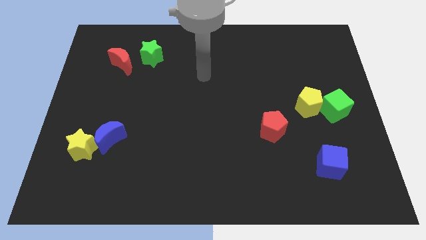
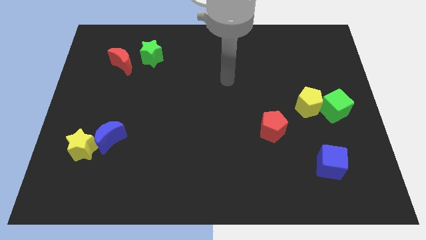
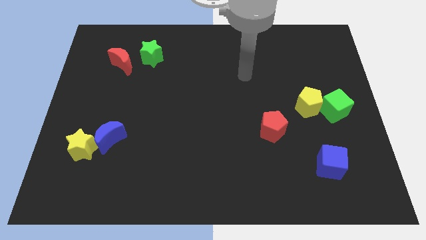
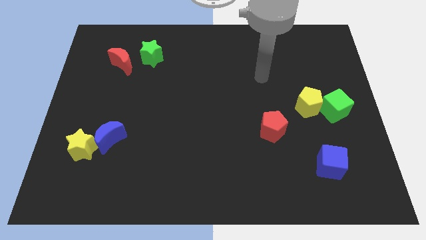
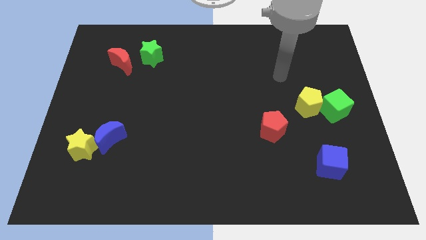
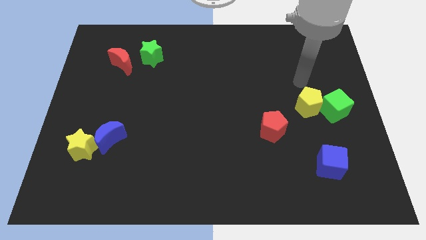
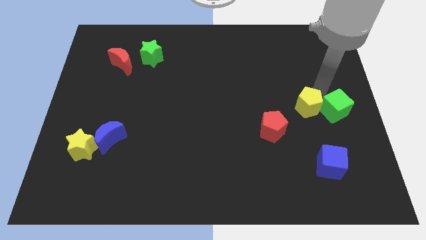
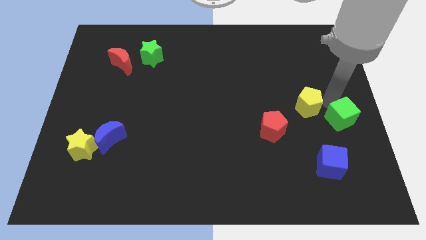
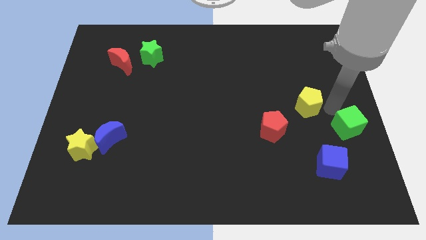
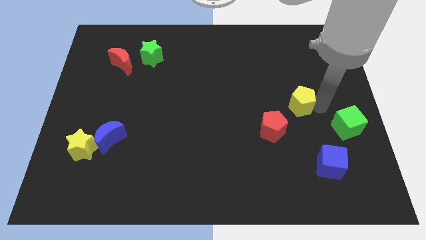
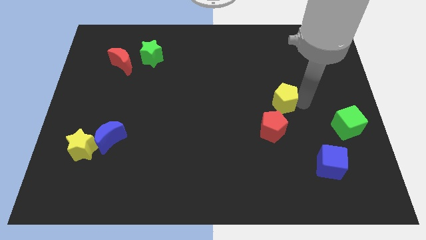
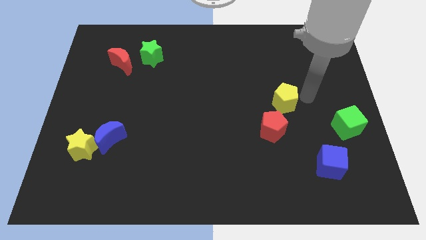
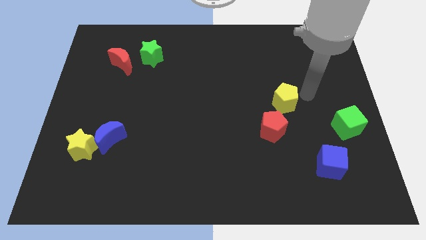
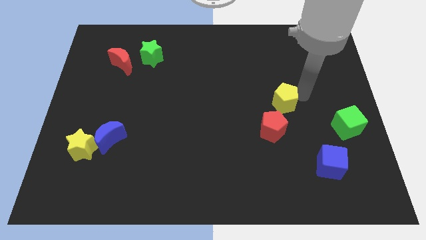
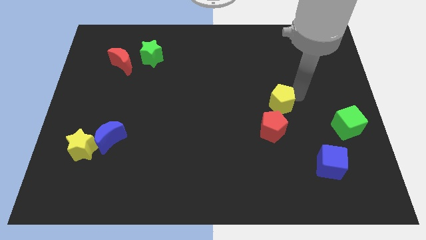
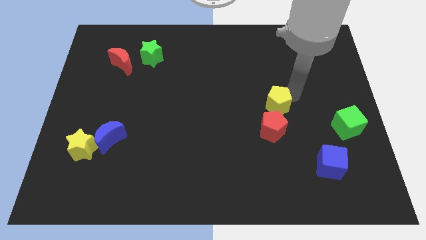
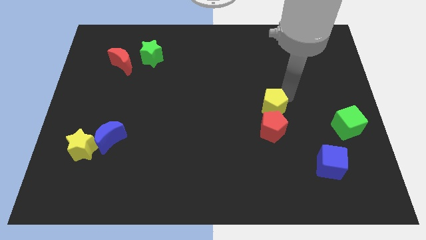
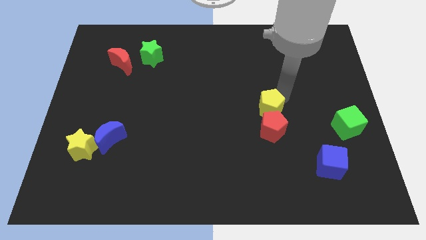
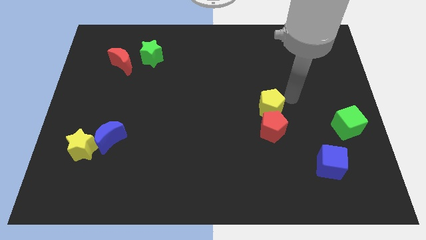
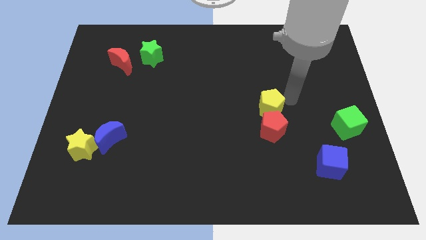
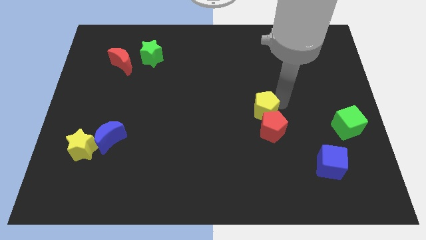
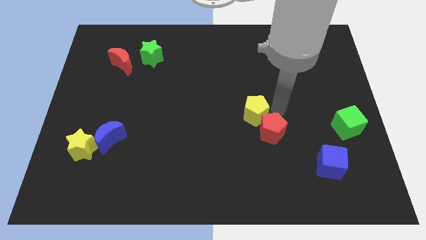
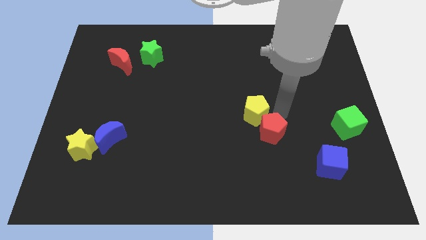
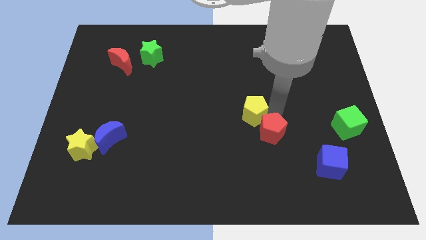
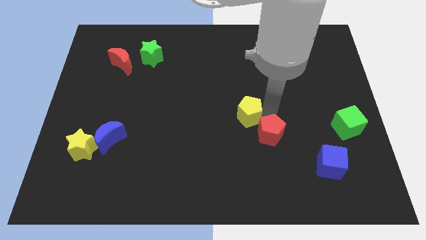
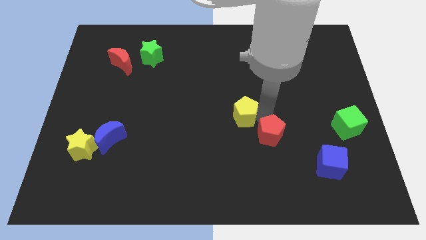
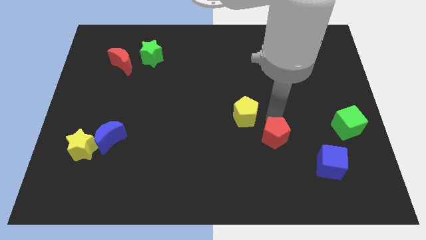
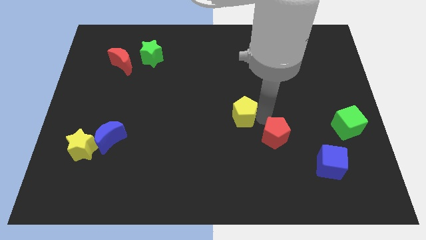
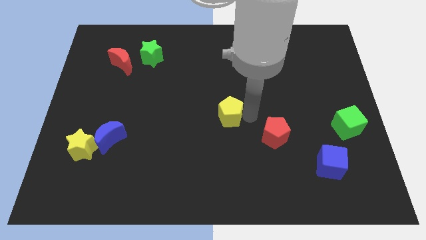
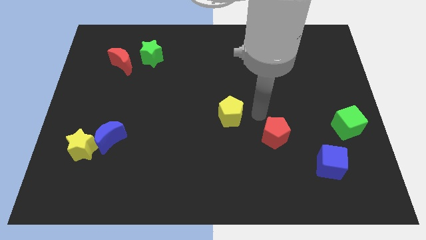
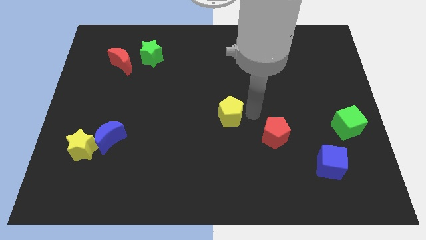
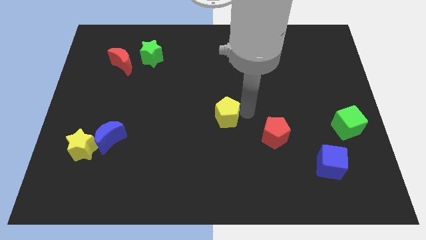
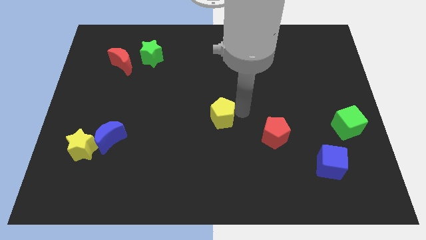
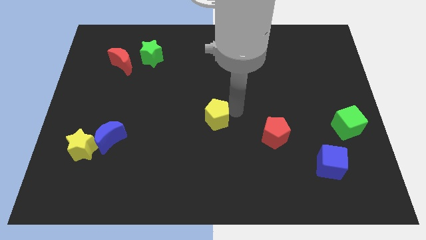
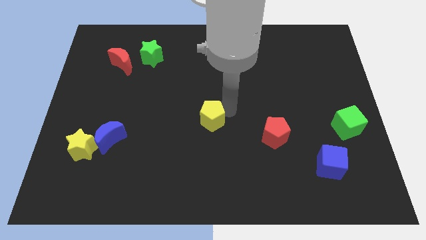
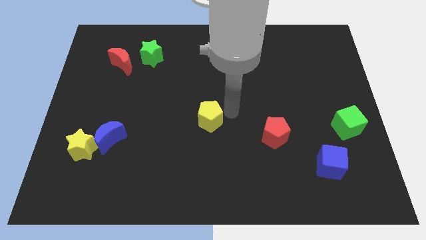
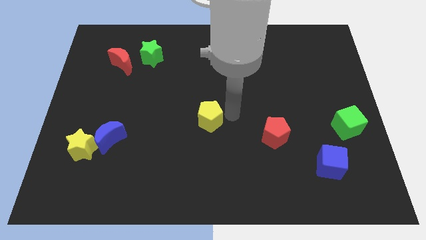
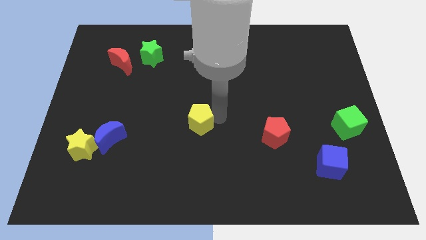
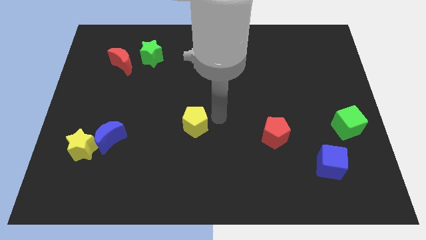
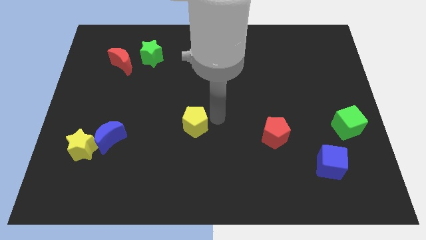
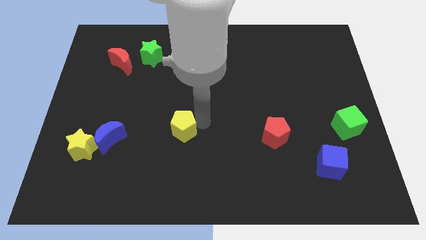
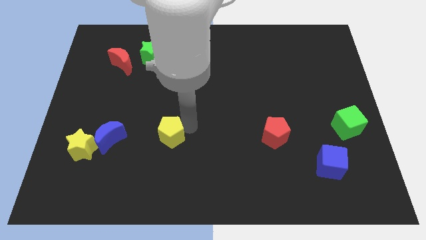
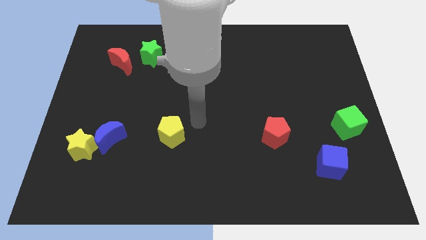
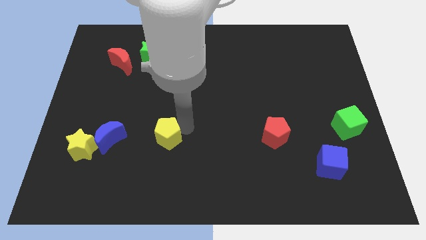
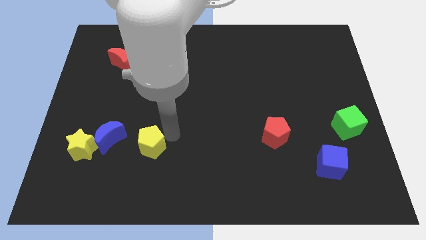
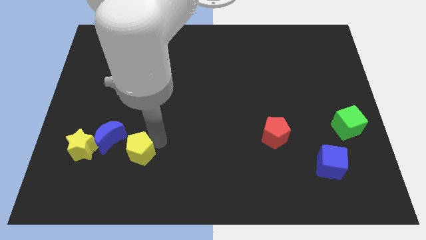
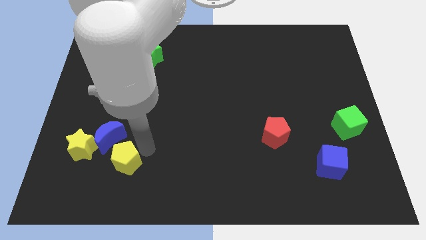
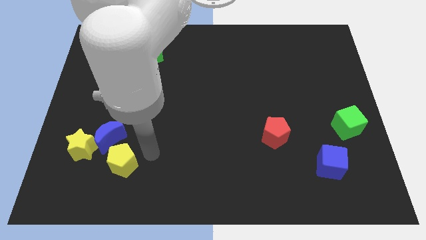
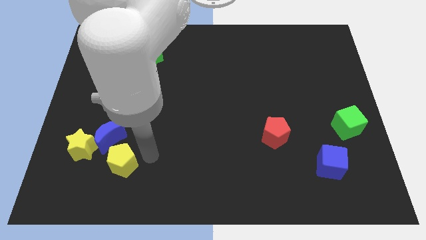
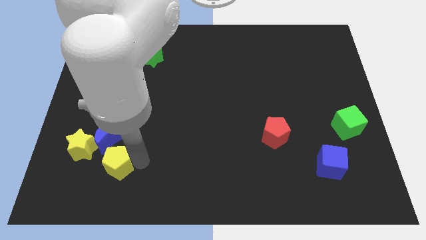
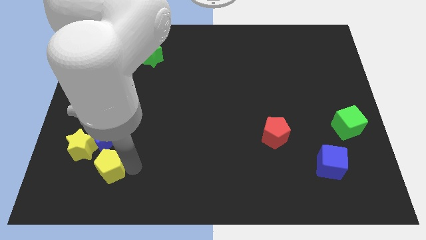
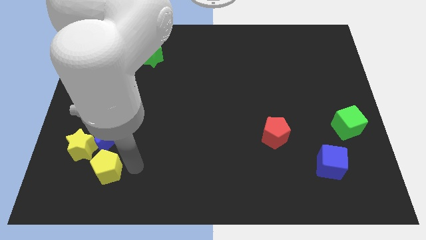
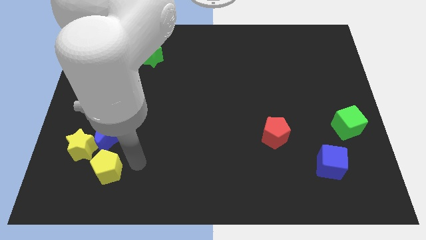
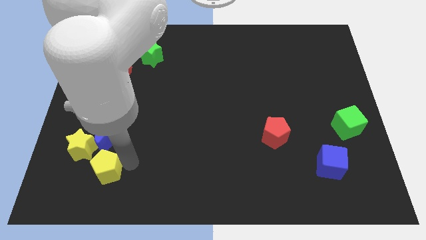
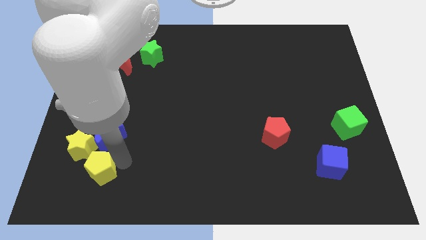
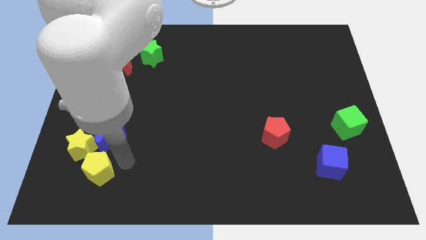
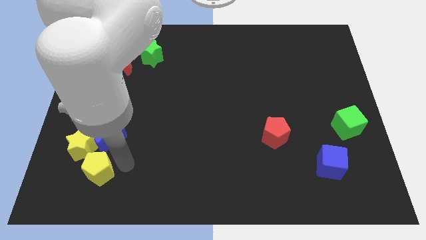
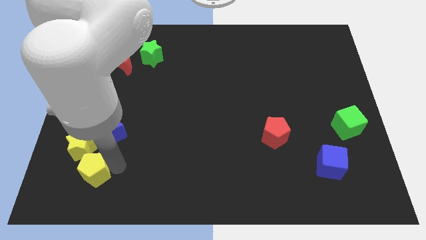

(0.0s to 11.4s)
slide the yellow pentagon to the bottom left of the blue moon

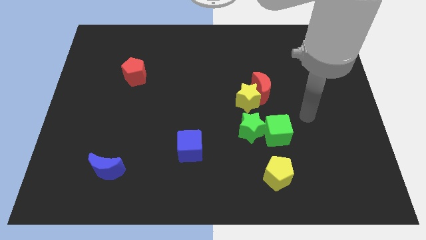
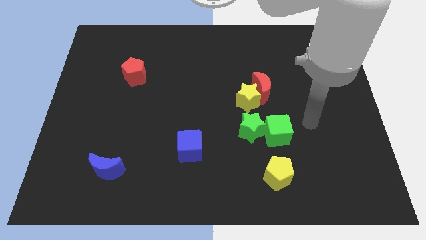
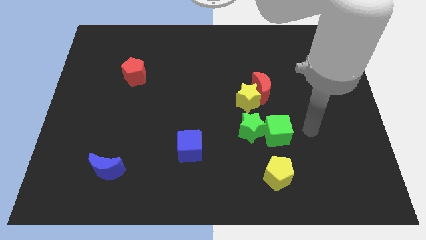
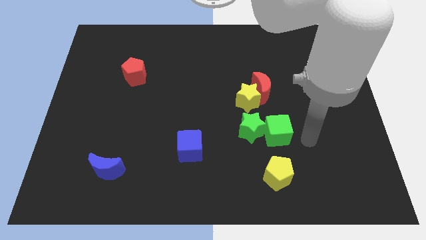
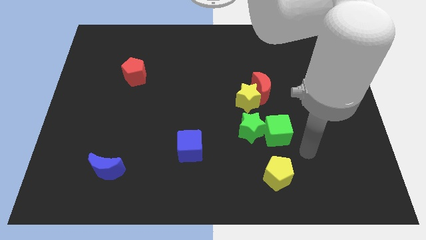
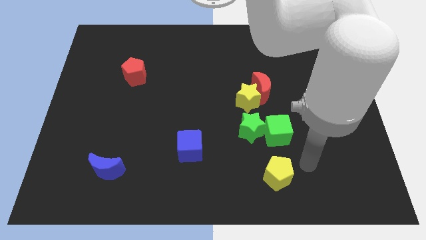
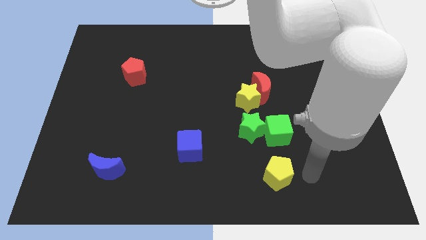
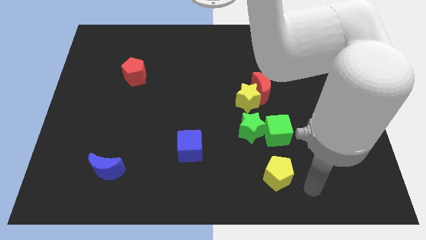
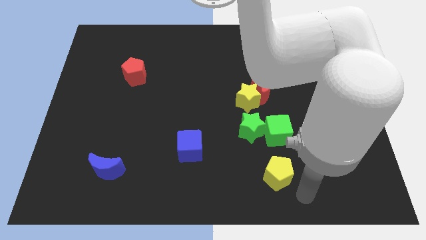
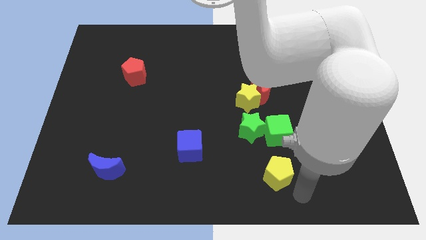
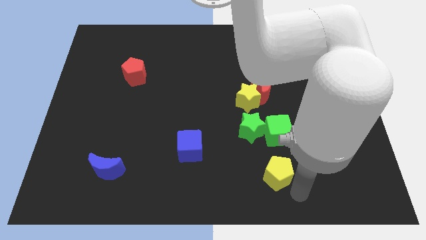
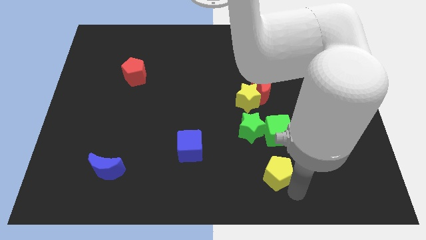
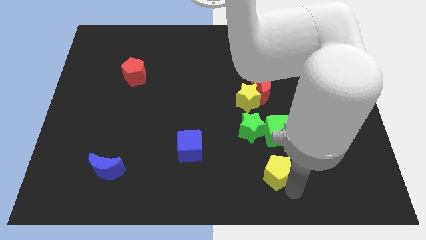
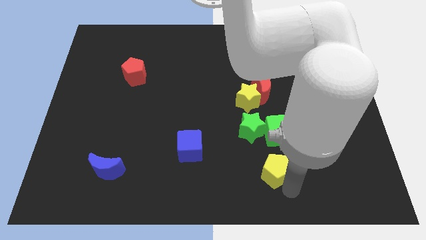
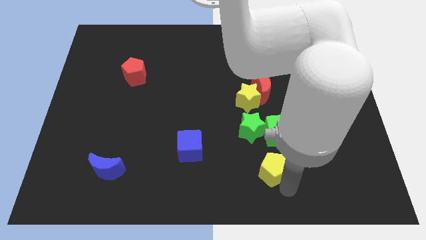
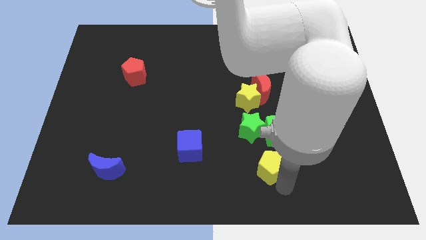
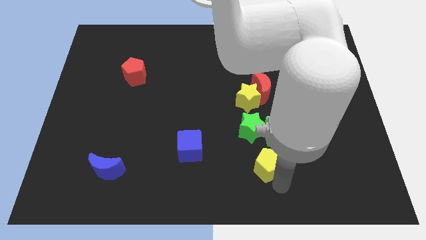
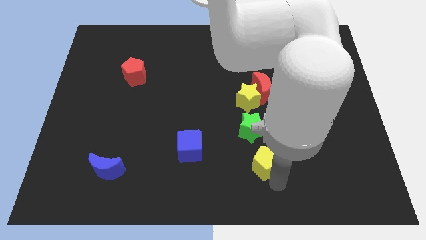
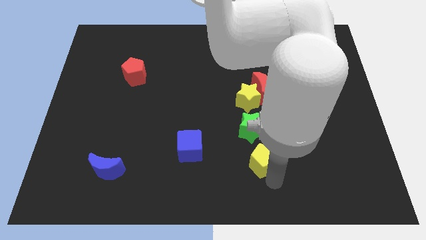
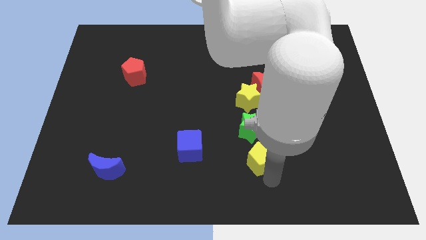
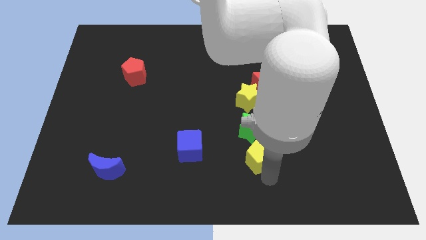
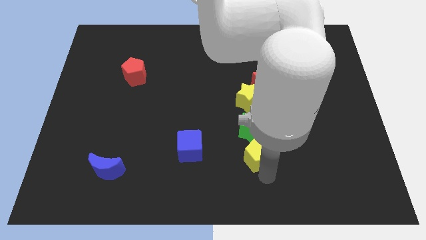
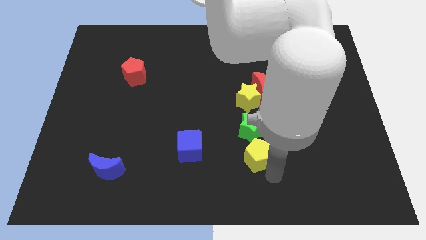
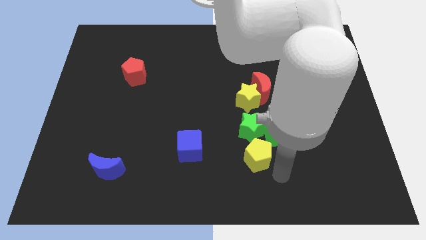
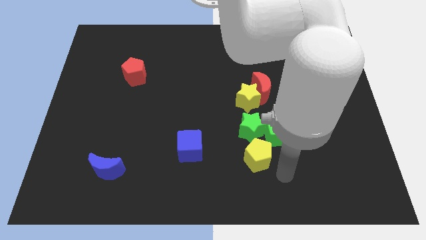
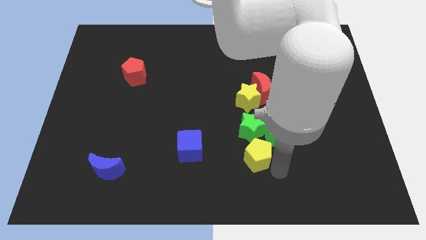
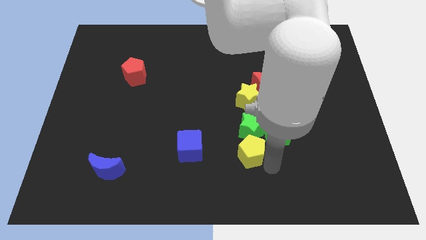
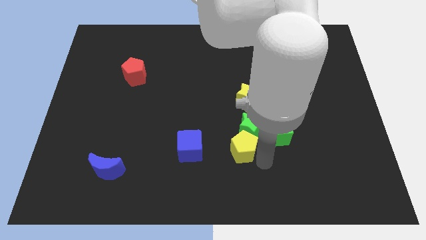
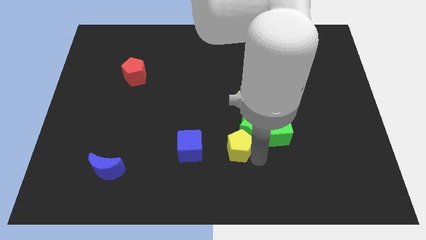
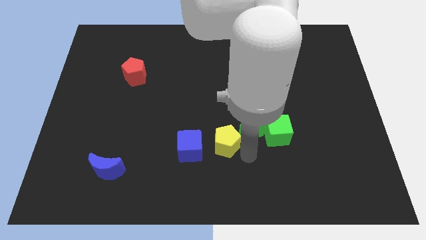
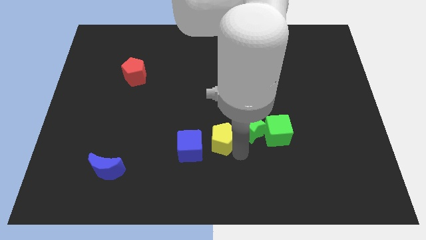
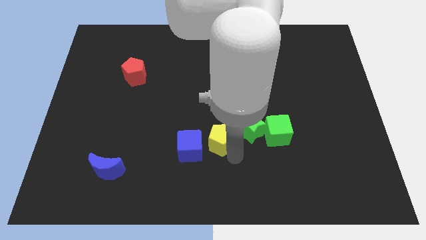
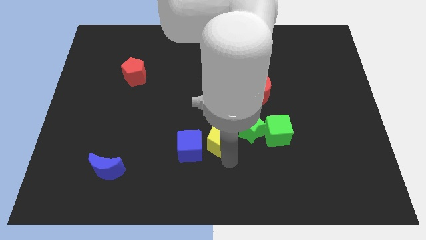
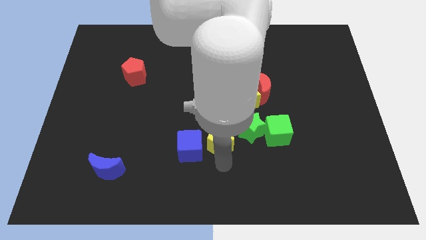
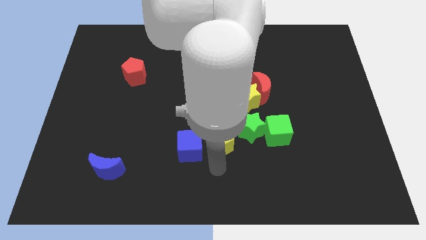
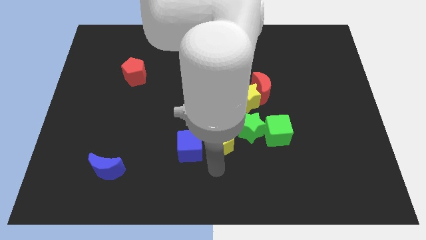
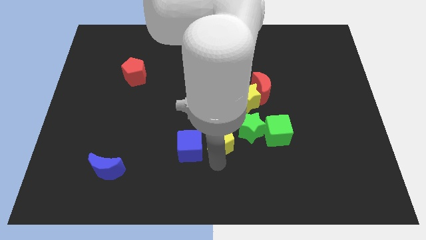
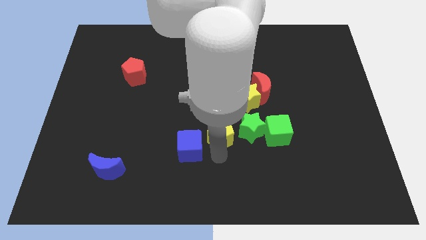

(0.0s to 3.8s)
move the yellow pentagon to the bottom left of the yellow star
